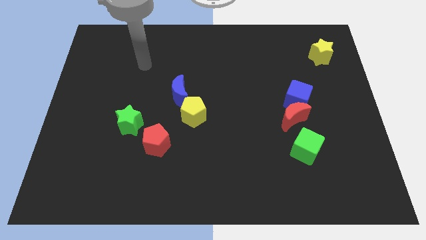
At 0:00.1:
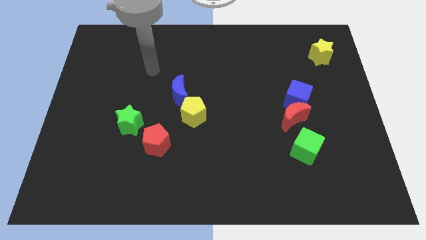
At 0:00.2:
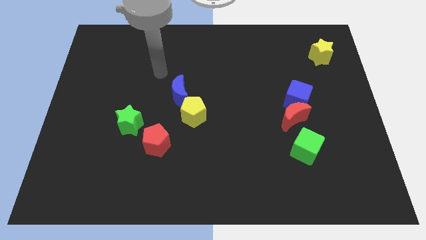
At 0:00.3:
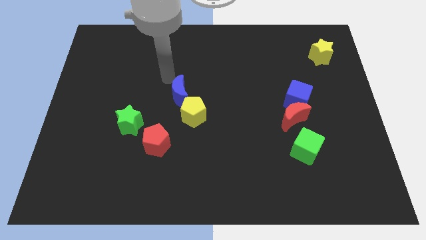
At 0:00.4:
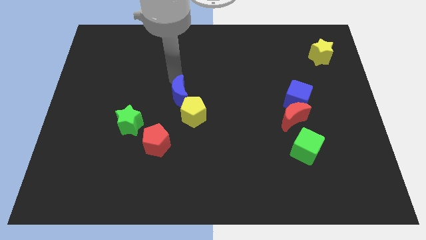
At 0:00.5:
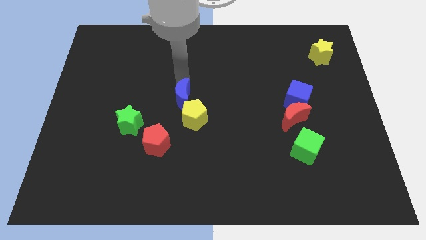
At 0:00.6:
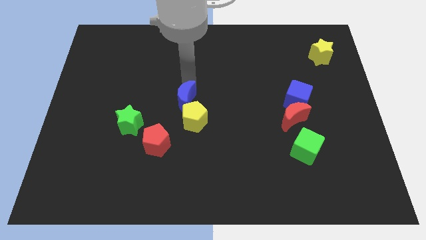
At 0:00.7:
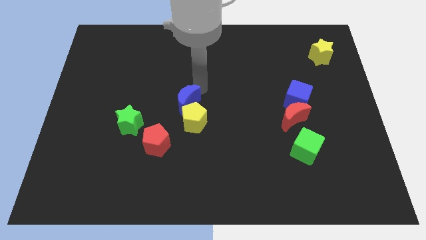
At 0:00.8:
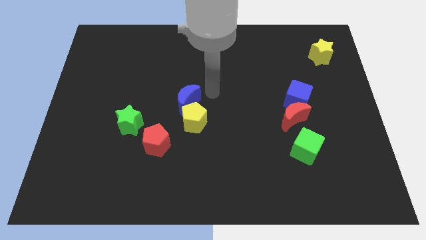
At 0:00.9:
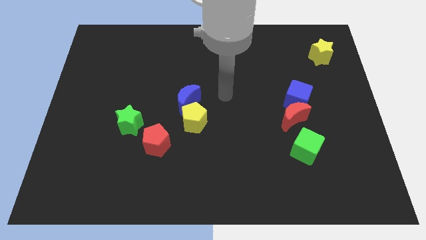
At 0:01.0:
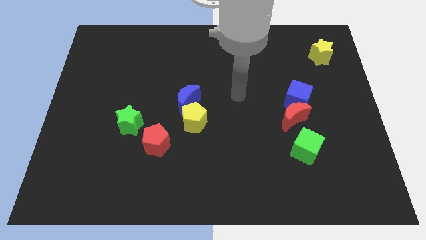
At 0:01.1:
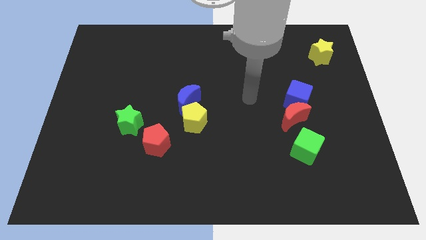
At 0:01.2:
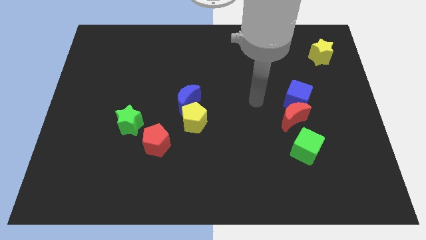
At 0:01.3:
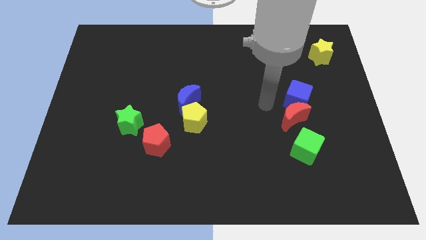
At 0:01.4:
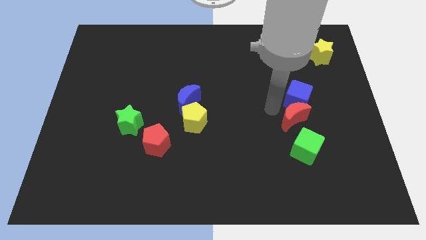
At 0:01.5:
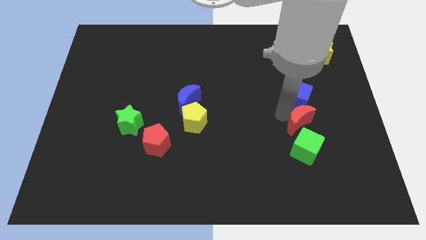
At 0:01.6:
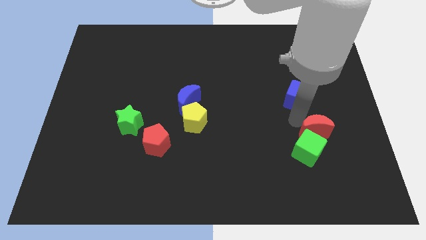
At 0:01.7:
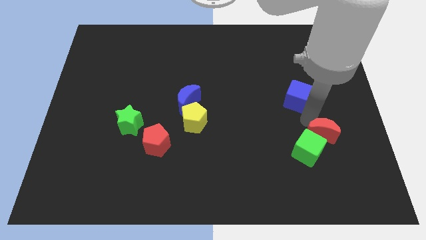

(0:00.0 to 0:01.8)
pull the blue cube apart from the red moon

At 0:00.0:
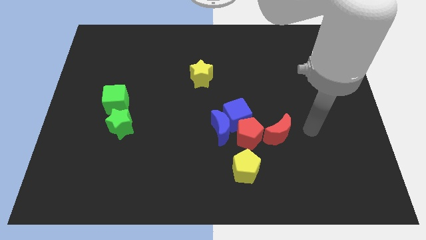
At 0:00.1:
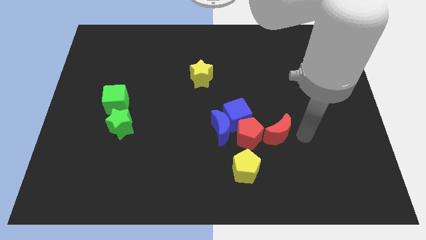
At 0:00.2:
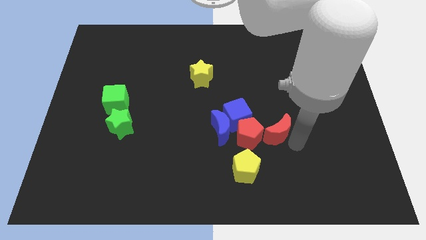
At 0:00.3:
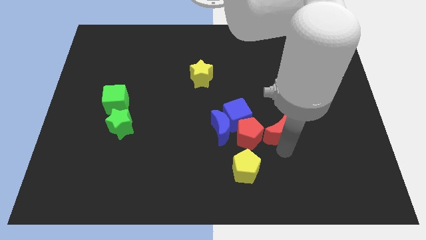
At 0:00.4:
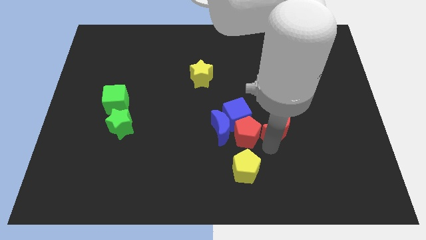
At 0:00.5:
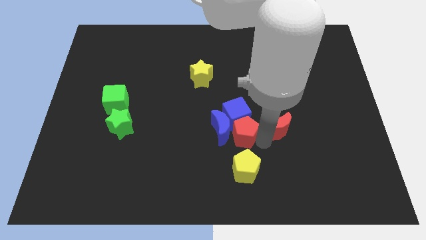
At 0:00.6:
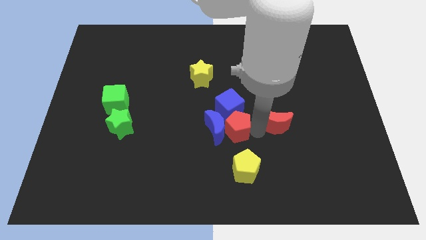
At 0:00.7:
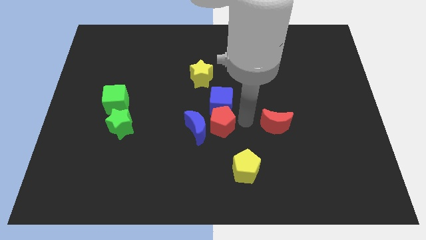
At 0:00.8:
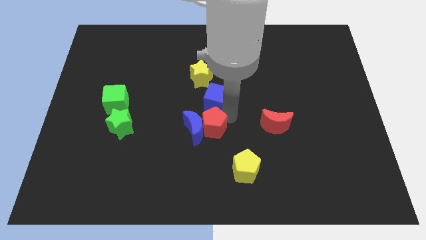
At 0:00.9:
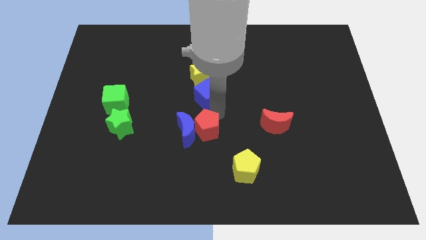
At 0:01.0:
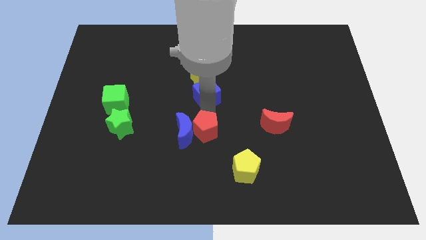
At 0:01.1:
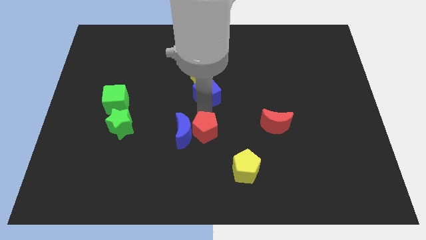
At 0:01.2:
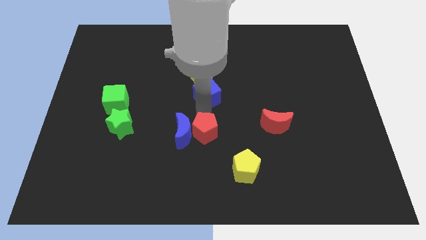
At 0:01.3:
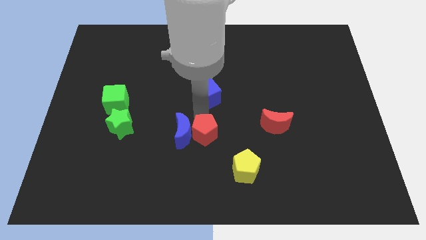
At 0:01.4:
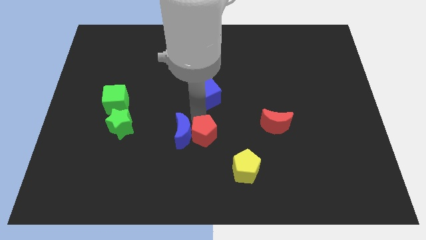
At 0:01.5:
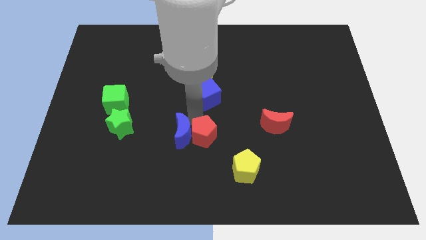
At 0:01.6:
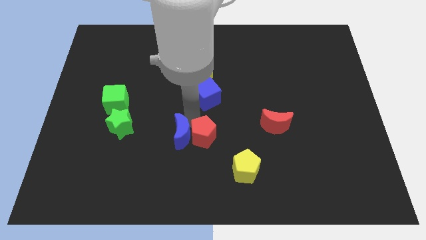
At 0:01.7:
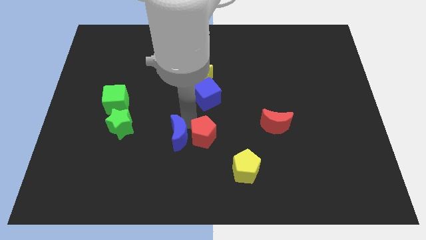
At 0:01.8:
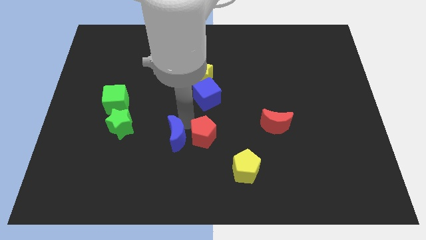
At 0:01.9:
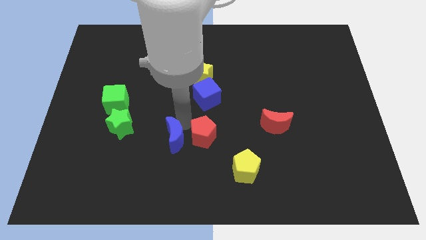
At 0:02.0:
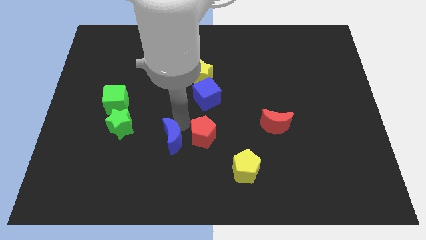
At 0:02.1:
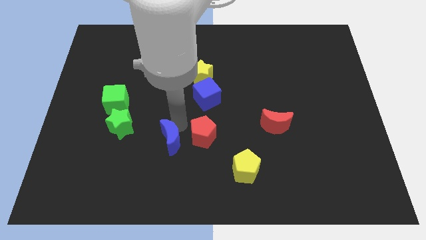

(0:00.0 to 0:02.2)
move the blue moon away from the blue cube and red pentagon

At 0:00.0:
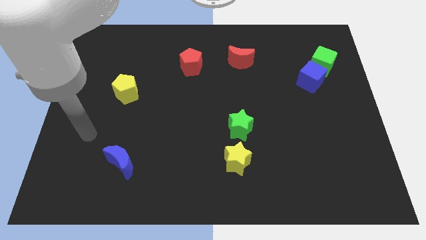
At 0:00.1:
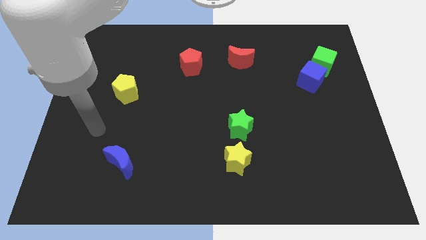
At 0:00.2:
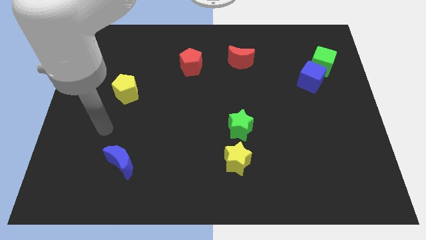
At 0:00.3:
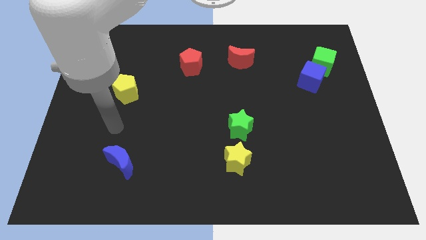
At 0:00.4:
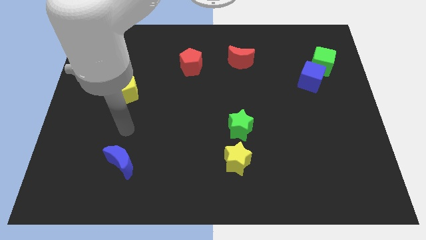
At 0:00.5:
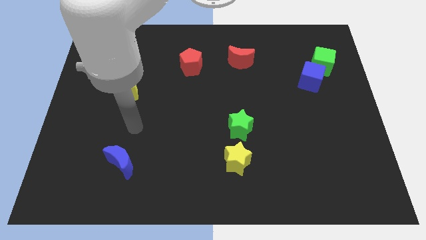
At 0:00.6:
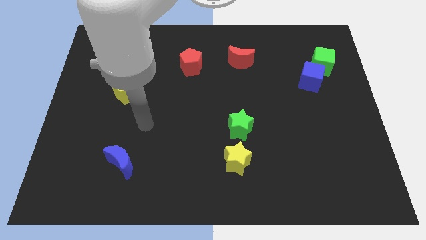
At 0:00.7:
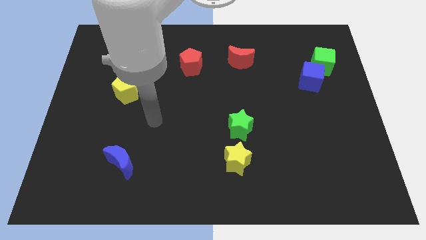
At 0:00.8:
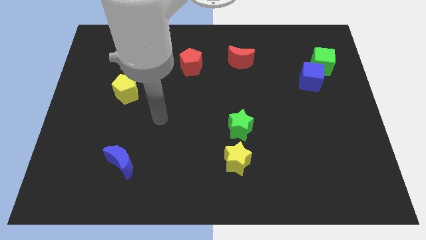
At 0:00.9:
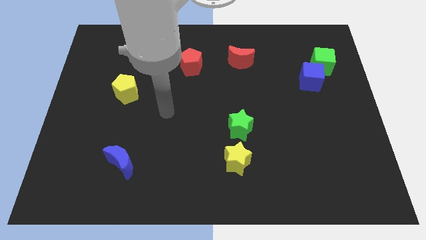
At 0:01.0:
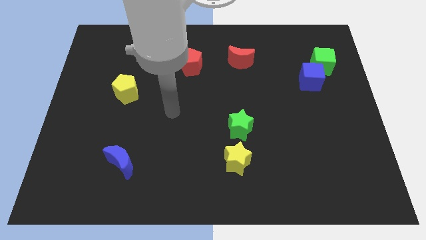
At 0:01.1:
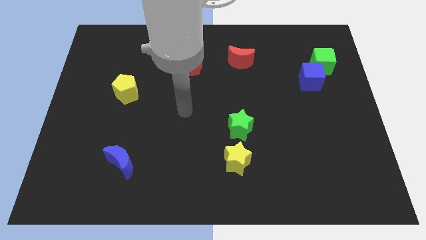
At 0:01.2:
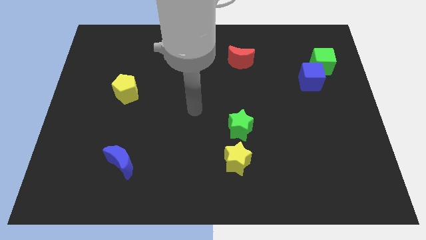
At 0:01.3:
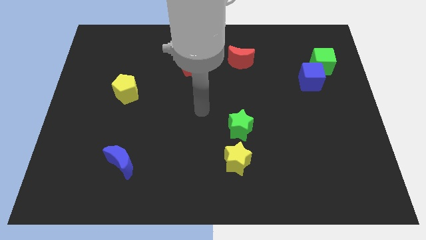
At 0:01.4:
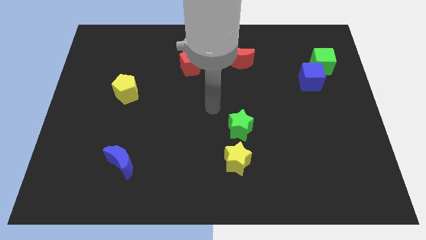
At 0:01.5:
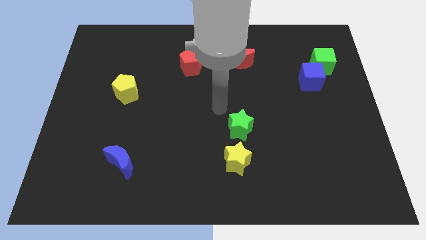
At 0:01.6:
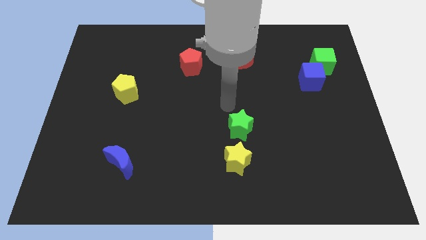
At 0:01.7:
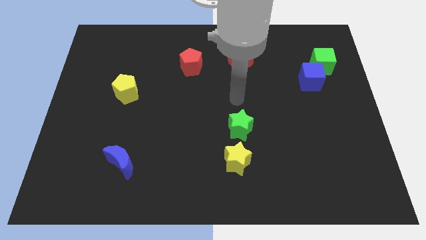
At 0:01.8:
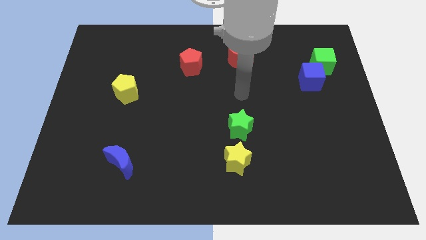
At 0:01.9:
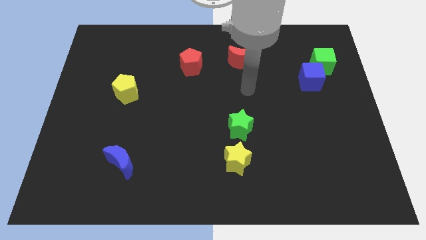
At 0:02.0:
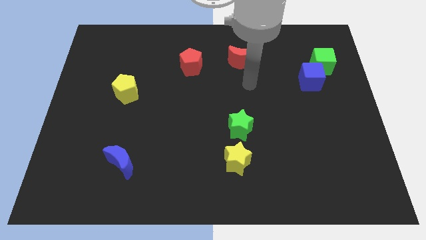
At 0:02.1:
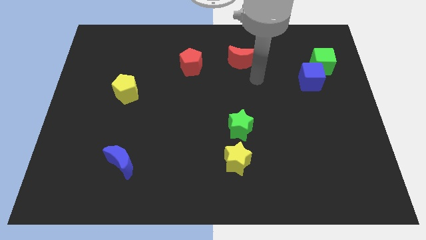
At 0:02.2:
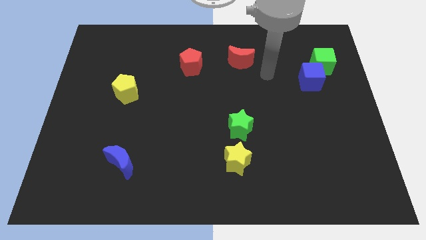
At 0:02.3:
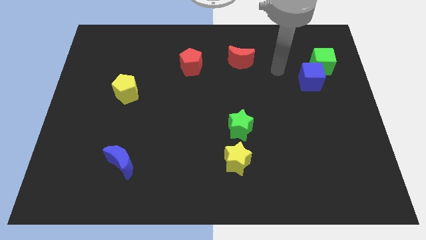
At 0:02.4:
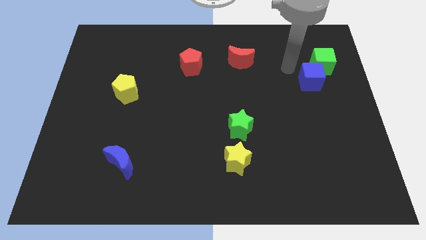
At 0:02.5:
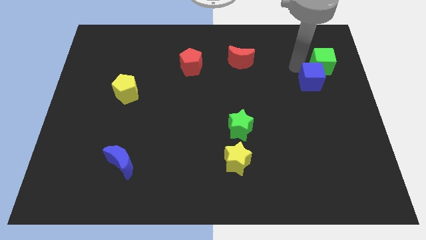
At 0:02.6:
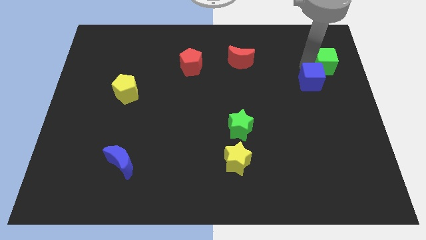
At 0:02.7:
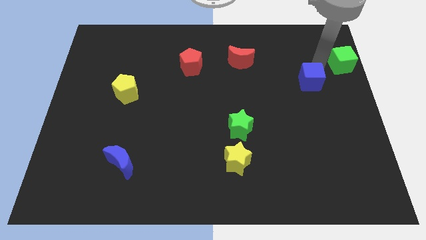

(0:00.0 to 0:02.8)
pull the blue cube apart from the green cube

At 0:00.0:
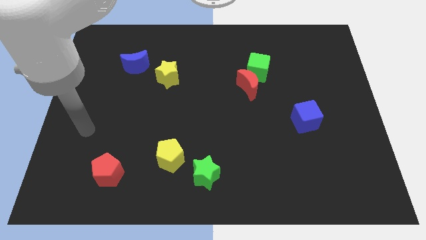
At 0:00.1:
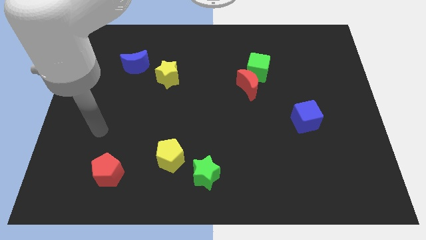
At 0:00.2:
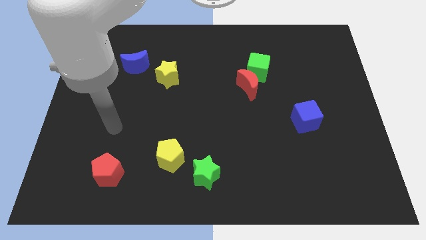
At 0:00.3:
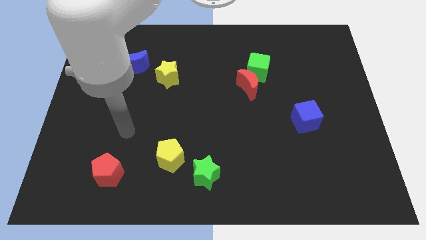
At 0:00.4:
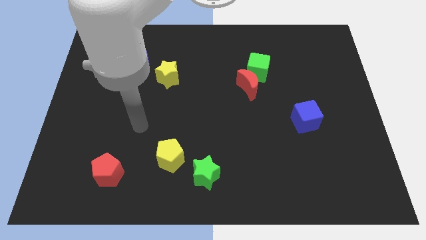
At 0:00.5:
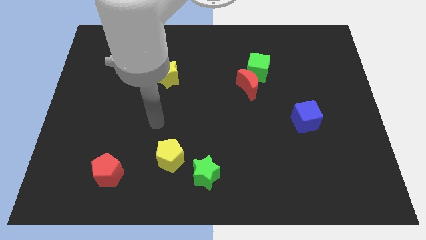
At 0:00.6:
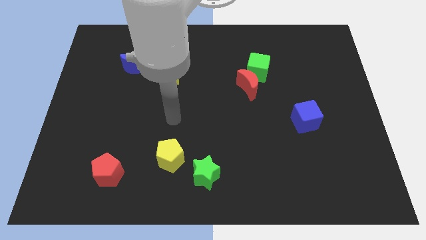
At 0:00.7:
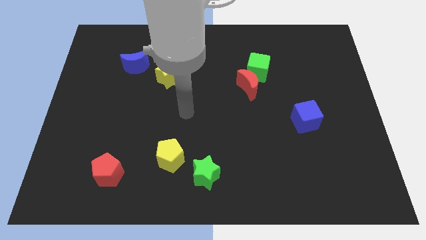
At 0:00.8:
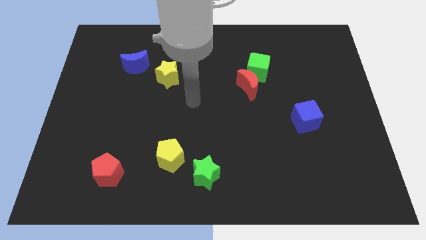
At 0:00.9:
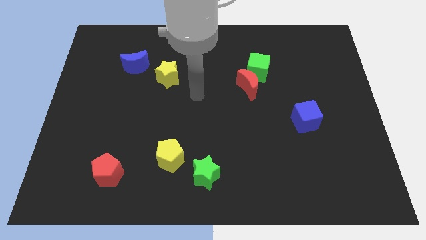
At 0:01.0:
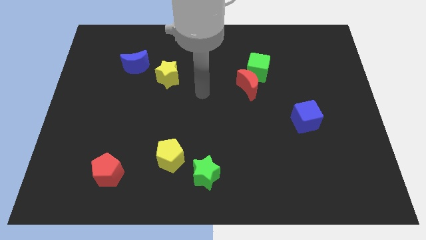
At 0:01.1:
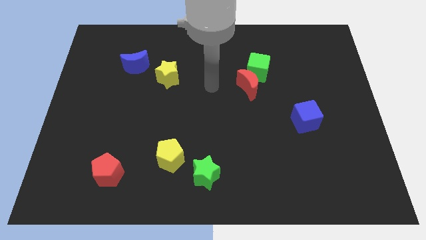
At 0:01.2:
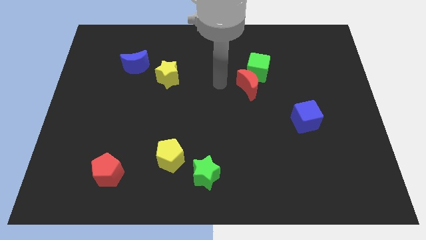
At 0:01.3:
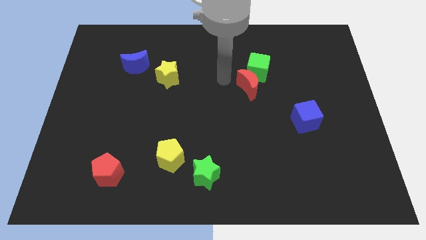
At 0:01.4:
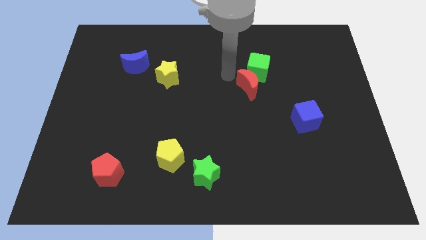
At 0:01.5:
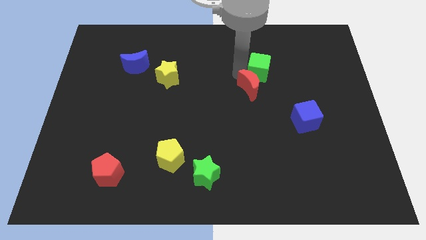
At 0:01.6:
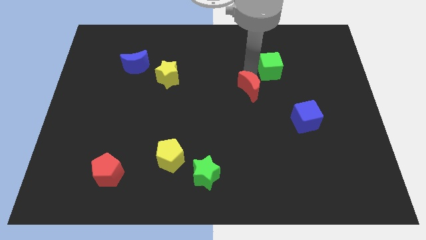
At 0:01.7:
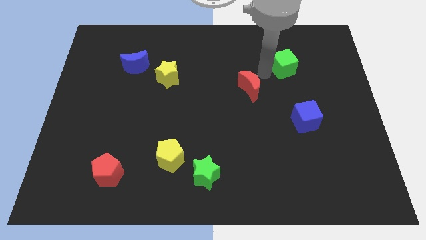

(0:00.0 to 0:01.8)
separate the red moon from the green cube

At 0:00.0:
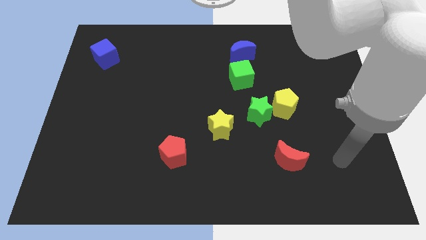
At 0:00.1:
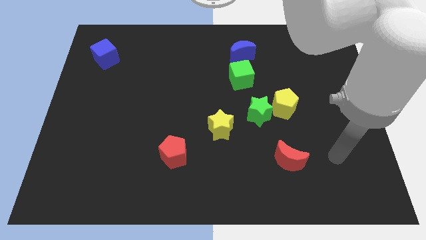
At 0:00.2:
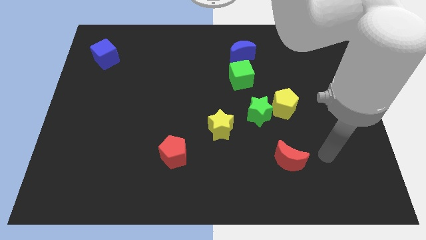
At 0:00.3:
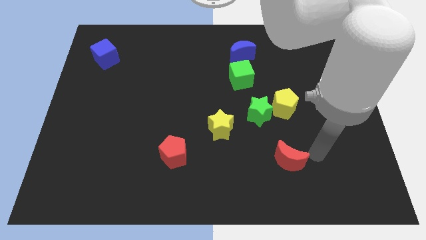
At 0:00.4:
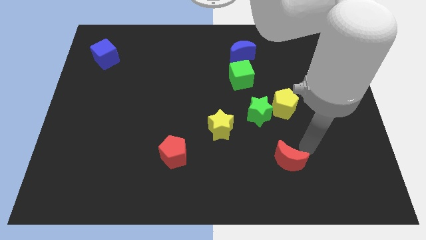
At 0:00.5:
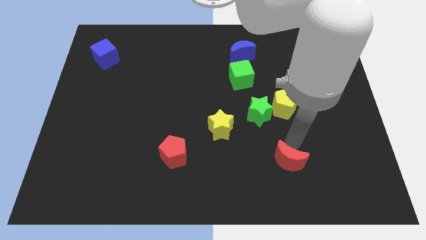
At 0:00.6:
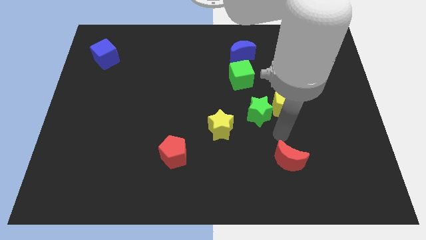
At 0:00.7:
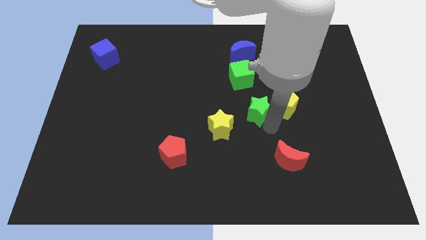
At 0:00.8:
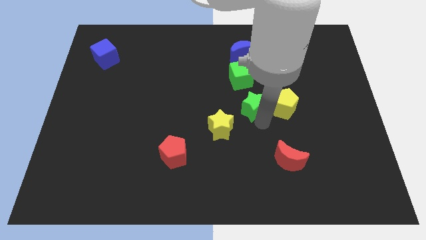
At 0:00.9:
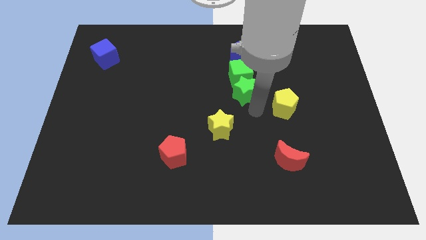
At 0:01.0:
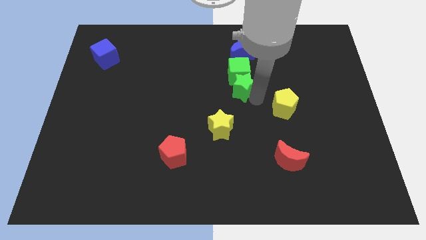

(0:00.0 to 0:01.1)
separate the yellow pentagon from the green star
